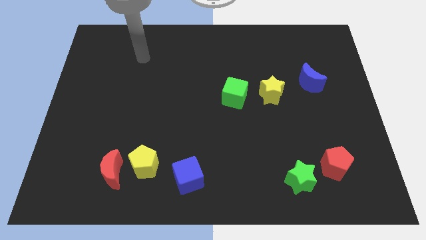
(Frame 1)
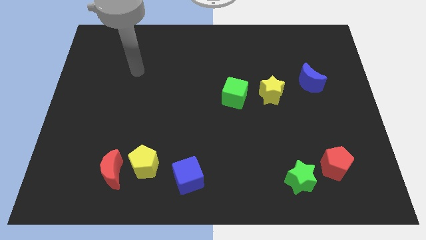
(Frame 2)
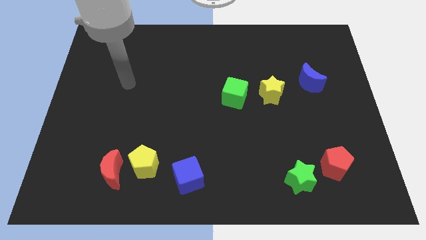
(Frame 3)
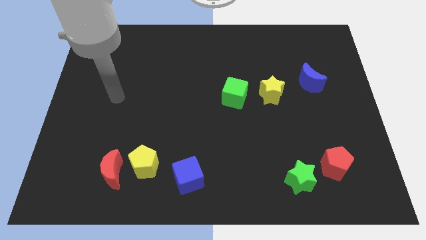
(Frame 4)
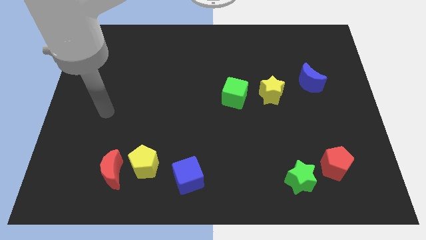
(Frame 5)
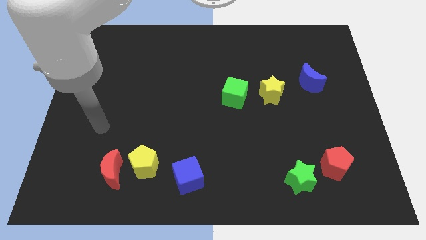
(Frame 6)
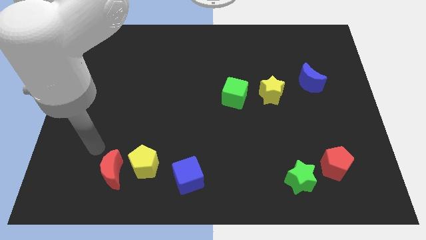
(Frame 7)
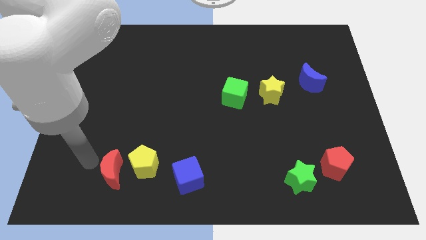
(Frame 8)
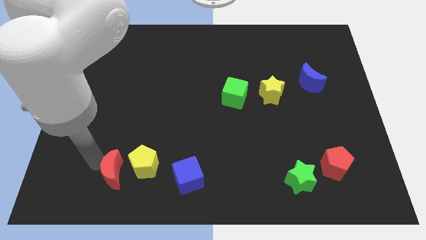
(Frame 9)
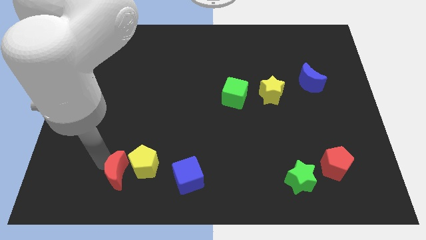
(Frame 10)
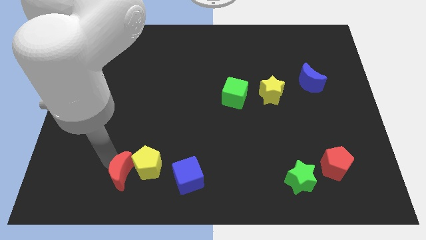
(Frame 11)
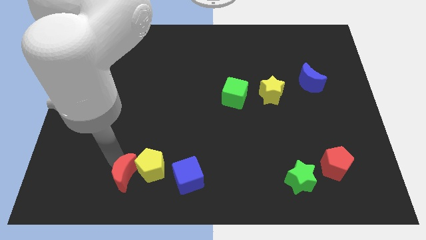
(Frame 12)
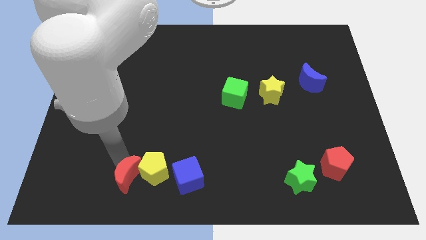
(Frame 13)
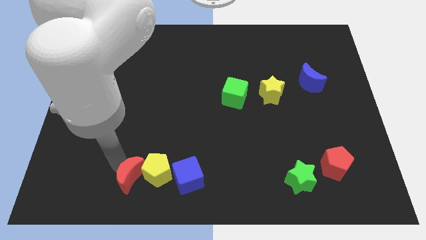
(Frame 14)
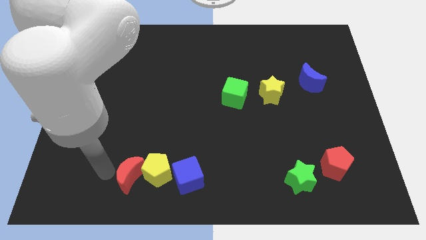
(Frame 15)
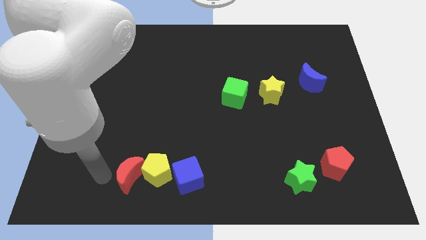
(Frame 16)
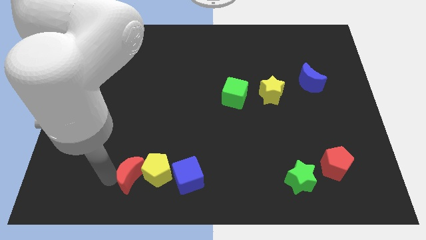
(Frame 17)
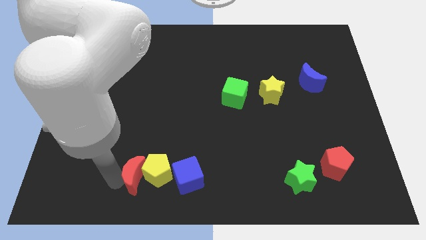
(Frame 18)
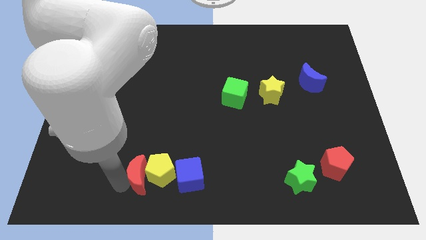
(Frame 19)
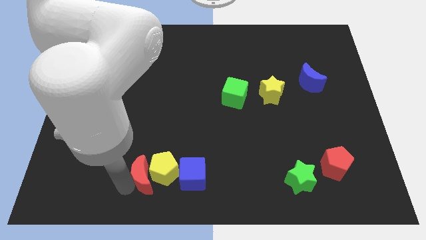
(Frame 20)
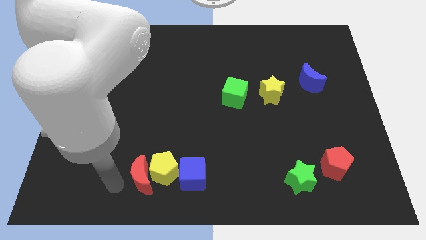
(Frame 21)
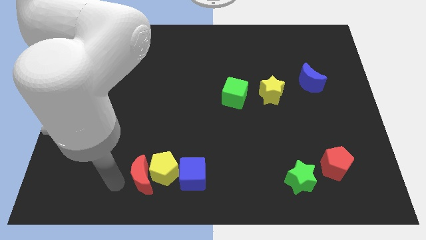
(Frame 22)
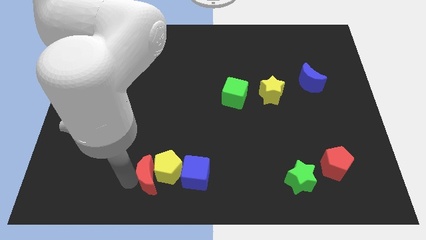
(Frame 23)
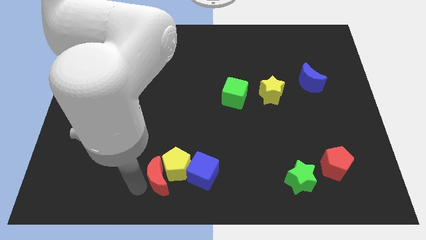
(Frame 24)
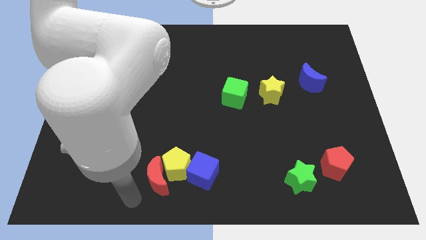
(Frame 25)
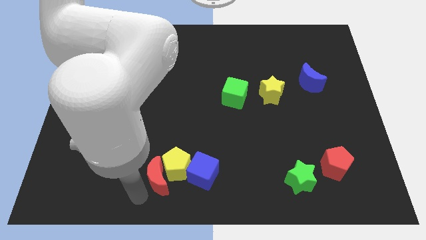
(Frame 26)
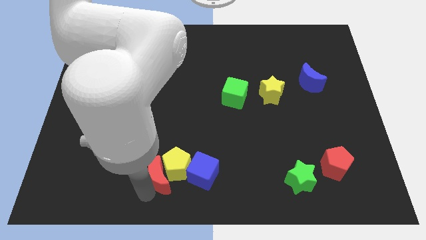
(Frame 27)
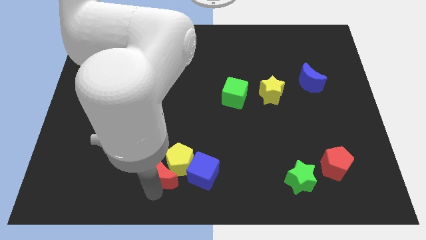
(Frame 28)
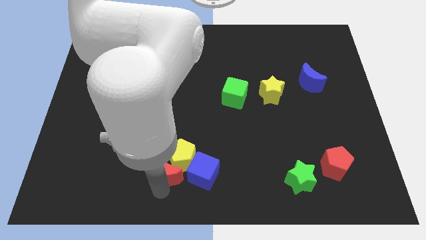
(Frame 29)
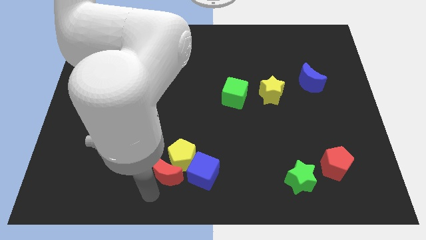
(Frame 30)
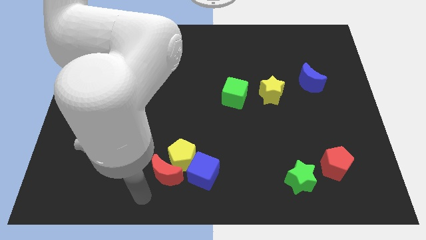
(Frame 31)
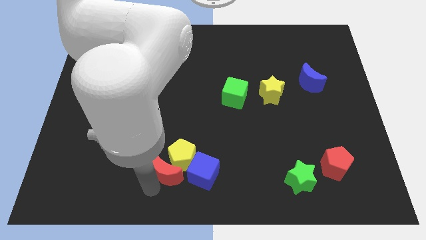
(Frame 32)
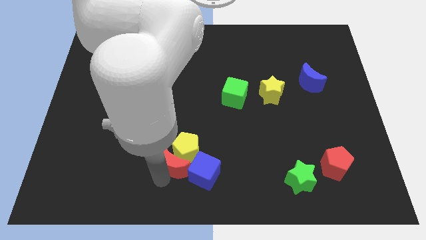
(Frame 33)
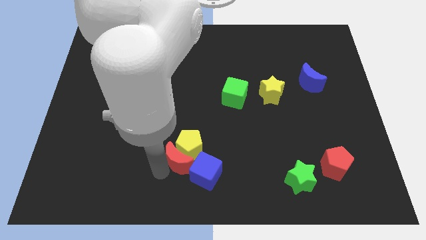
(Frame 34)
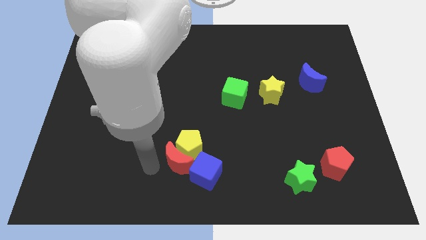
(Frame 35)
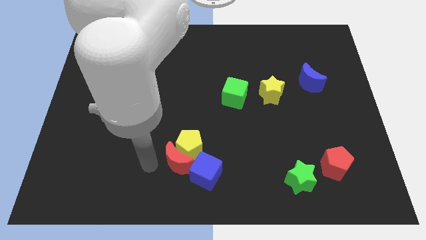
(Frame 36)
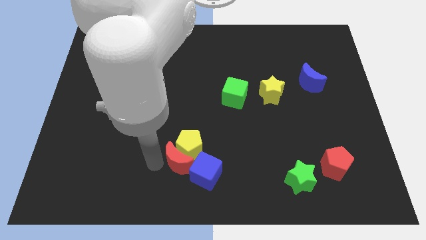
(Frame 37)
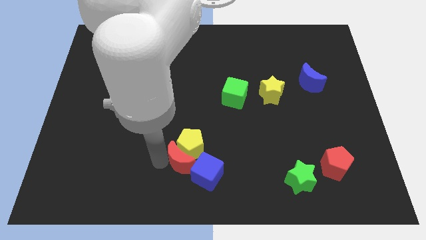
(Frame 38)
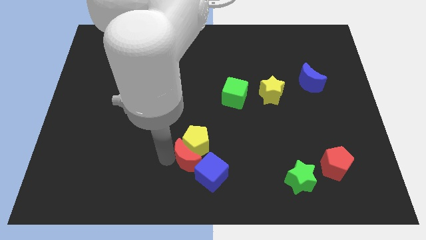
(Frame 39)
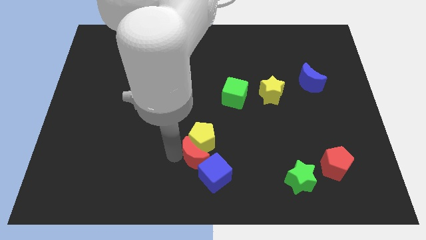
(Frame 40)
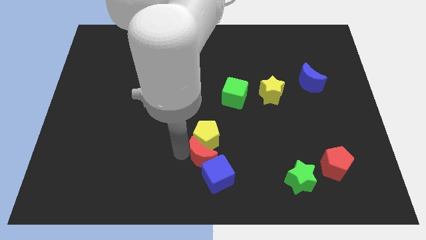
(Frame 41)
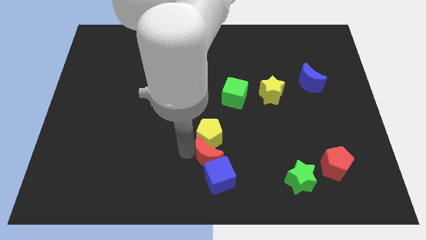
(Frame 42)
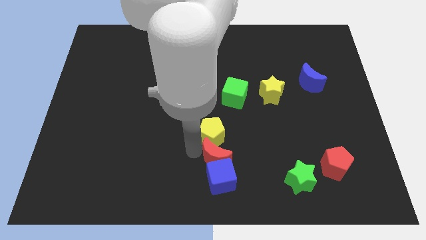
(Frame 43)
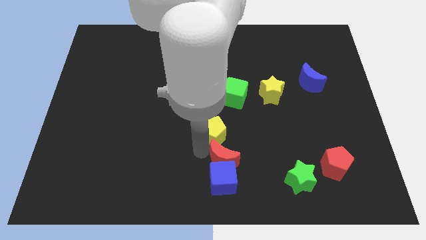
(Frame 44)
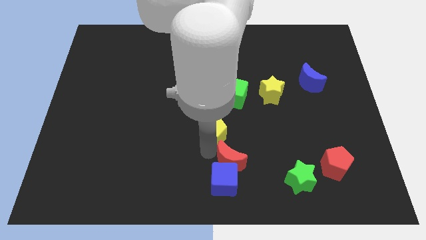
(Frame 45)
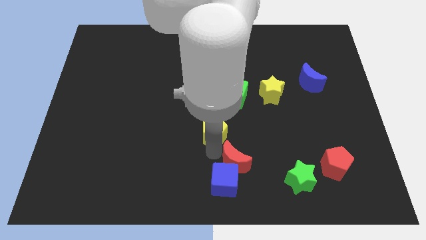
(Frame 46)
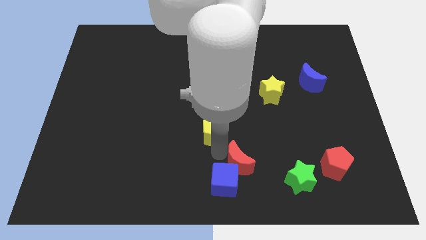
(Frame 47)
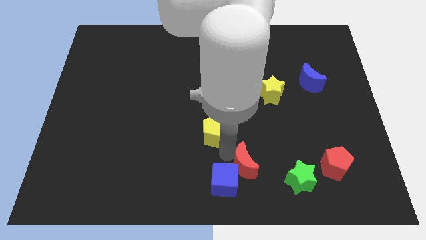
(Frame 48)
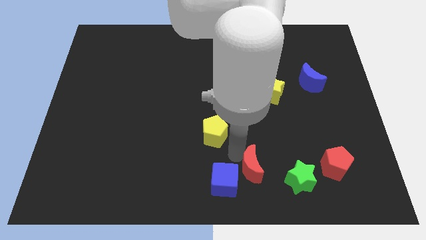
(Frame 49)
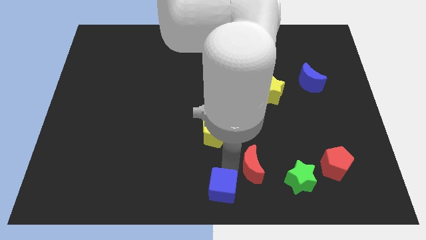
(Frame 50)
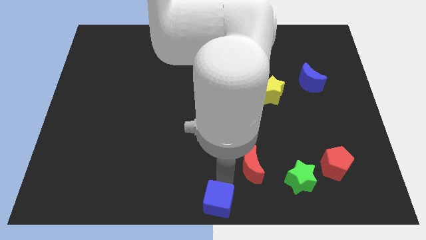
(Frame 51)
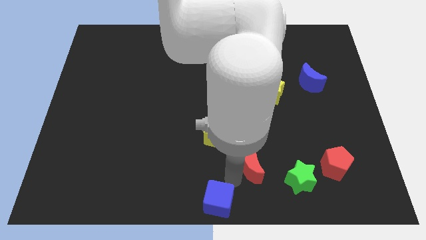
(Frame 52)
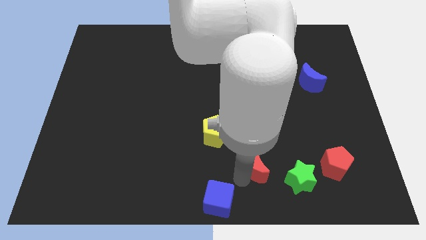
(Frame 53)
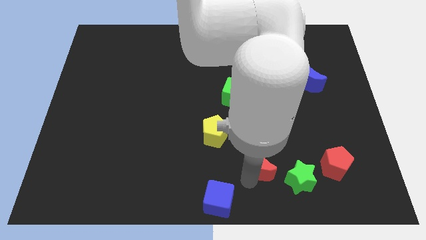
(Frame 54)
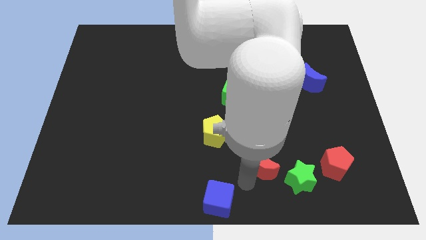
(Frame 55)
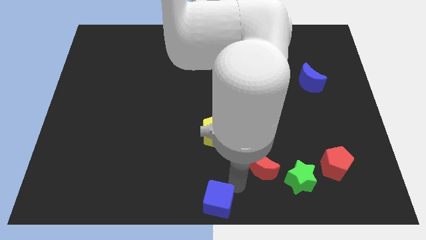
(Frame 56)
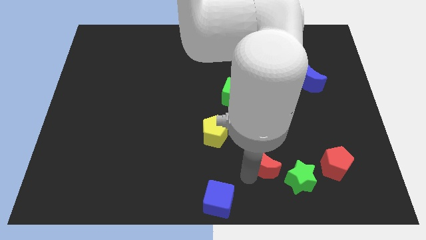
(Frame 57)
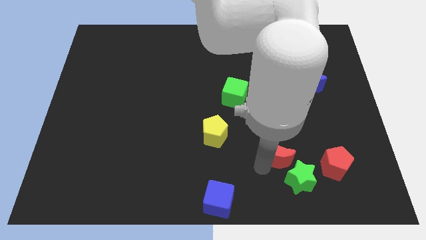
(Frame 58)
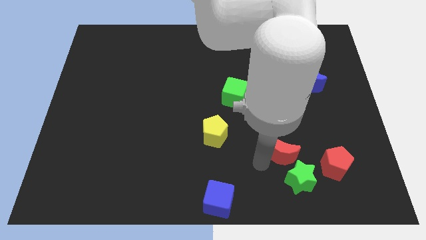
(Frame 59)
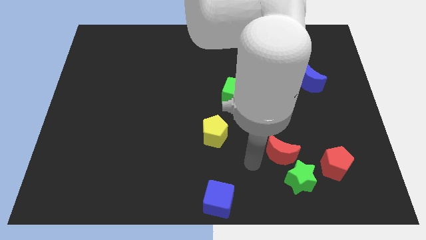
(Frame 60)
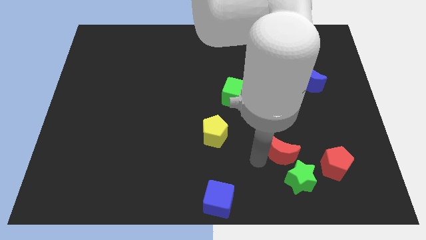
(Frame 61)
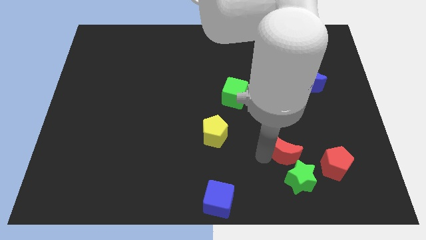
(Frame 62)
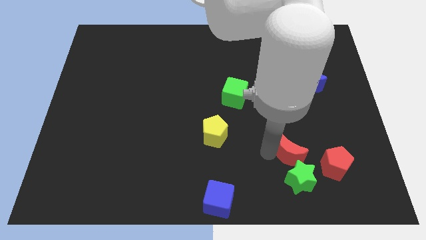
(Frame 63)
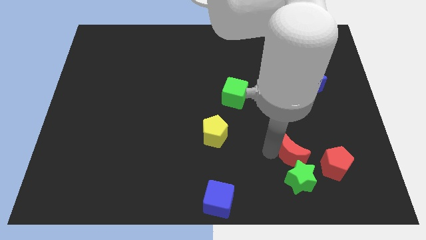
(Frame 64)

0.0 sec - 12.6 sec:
push the red moon to the top right of the green star

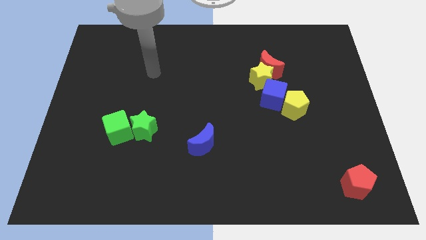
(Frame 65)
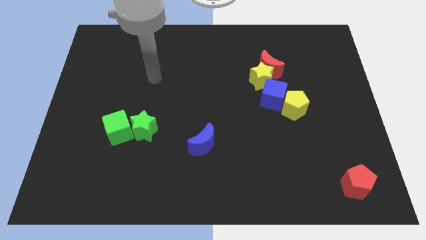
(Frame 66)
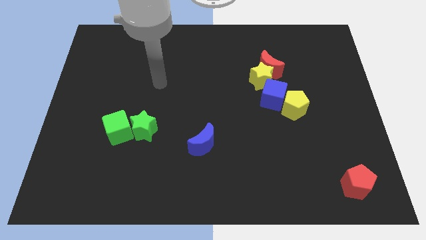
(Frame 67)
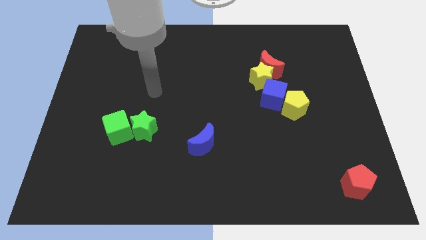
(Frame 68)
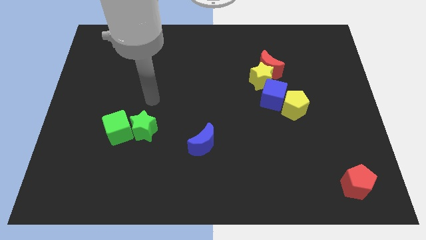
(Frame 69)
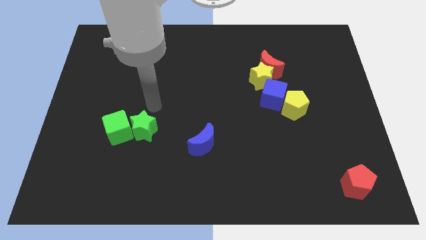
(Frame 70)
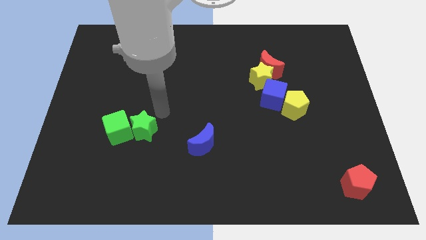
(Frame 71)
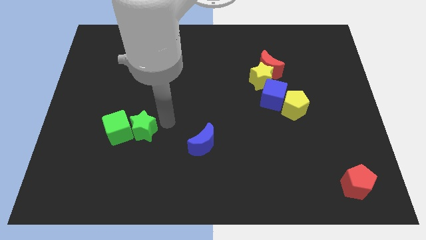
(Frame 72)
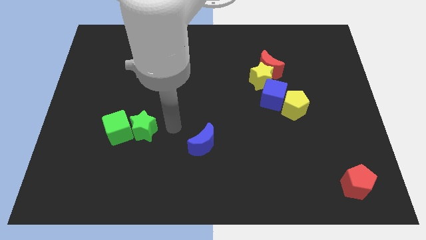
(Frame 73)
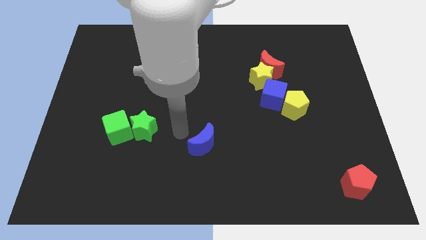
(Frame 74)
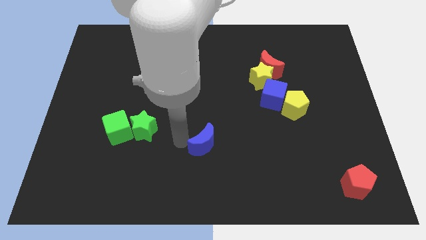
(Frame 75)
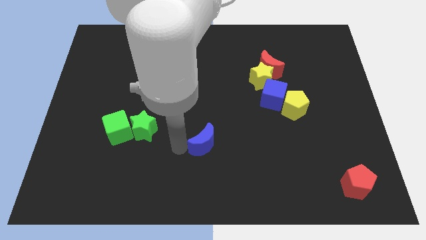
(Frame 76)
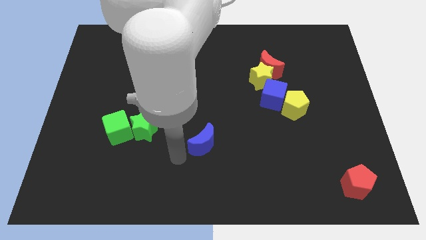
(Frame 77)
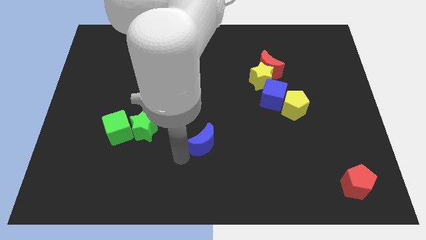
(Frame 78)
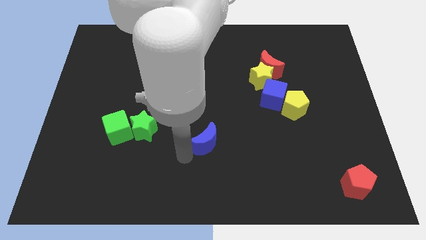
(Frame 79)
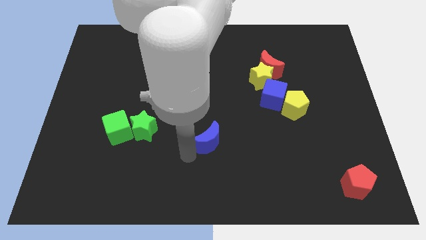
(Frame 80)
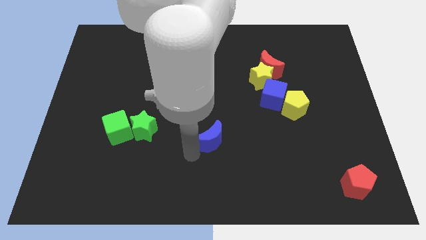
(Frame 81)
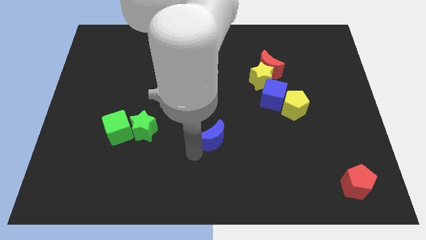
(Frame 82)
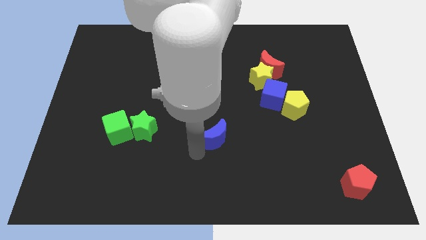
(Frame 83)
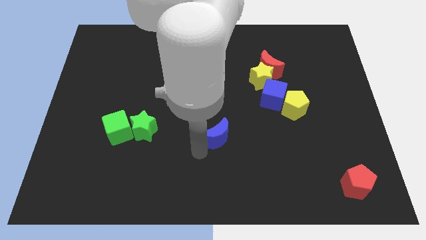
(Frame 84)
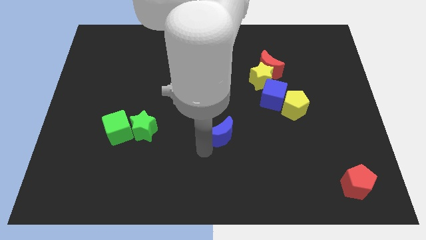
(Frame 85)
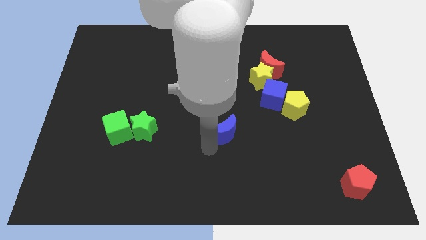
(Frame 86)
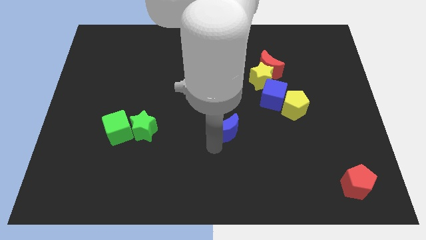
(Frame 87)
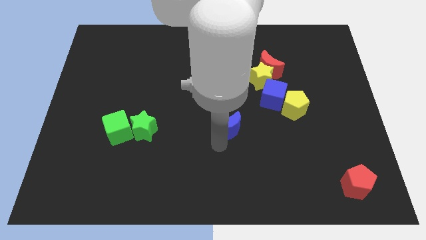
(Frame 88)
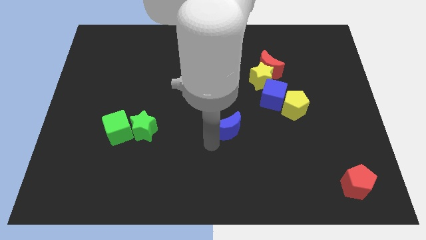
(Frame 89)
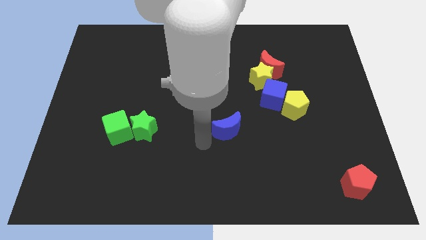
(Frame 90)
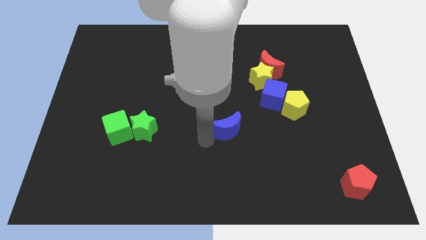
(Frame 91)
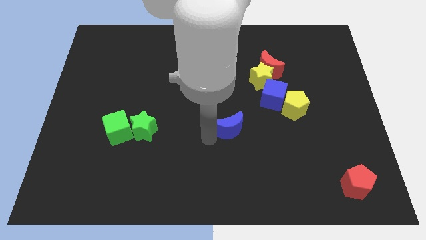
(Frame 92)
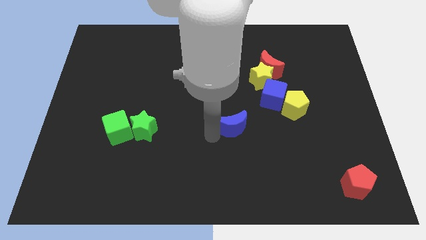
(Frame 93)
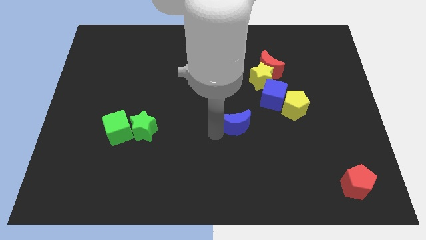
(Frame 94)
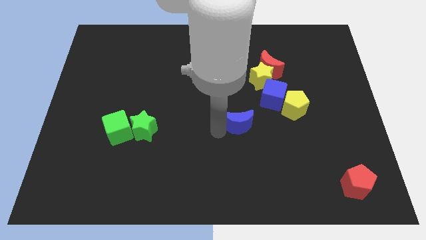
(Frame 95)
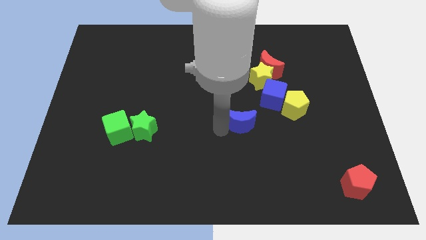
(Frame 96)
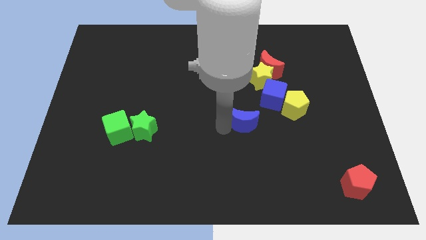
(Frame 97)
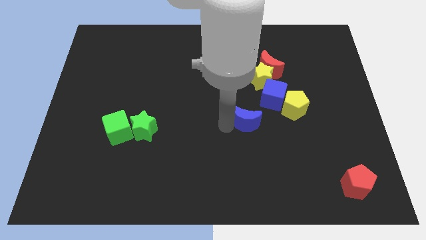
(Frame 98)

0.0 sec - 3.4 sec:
push the blue moon to the bottom of the yellow star
